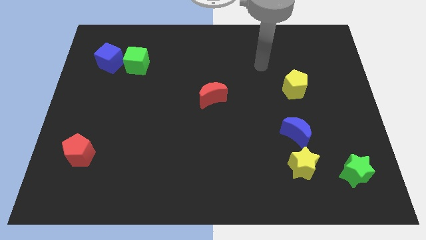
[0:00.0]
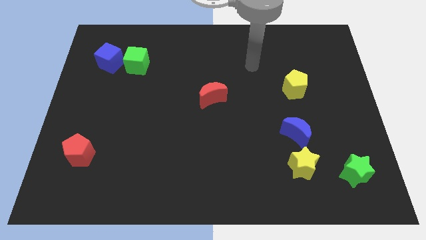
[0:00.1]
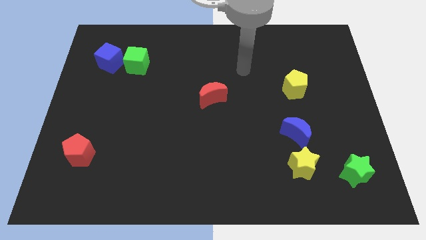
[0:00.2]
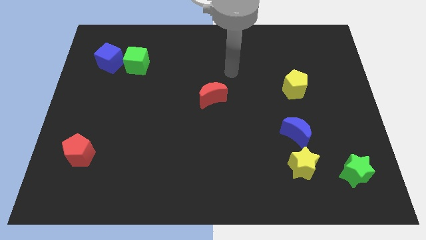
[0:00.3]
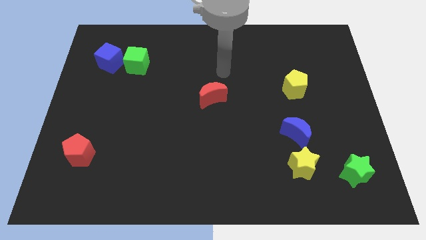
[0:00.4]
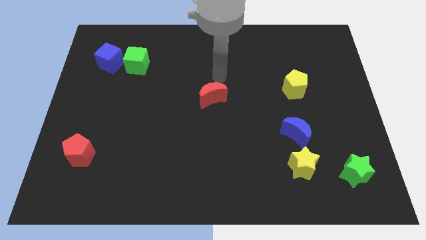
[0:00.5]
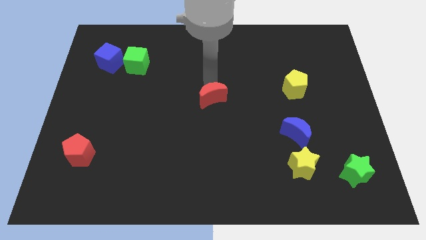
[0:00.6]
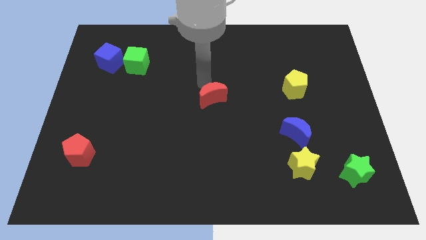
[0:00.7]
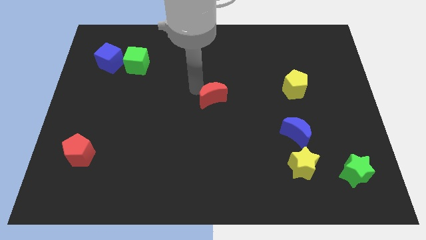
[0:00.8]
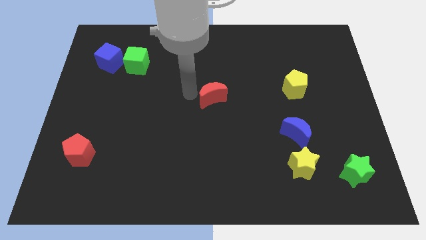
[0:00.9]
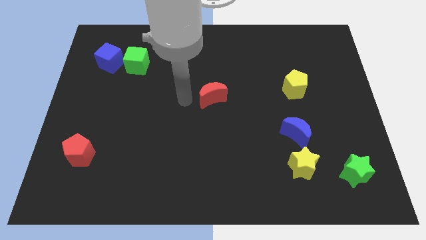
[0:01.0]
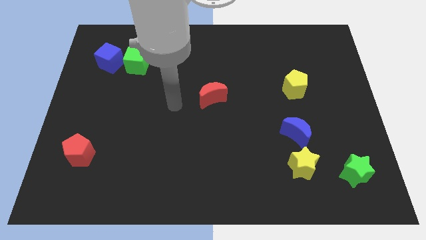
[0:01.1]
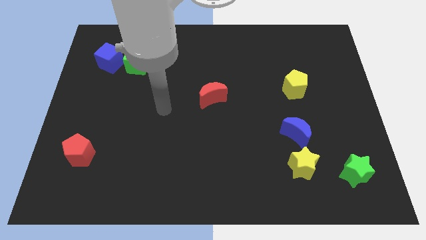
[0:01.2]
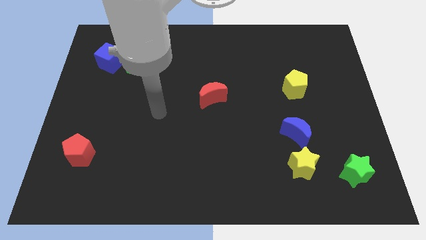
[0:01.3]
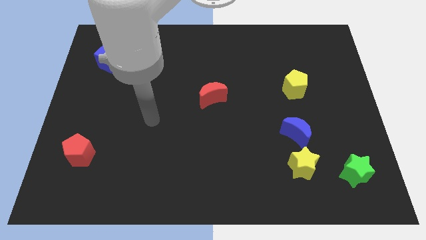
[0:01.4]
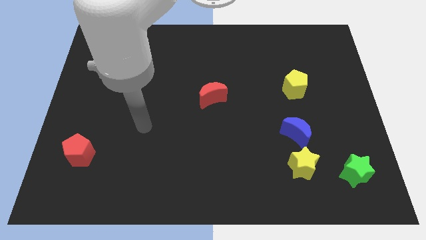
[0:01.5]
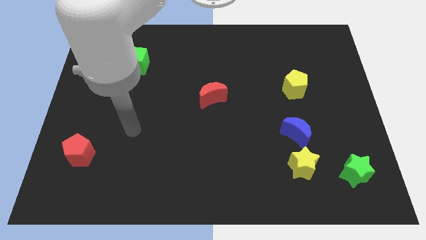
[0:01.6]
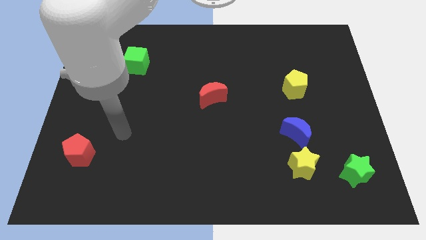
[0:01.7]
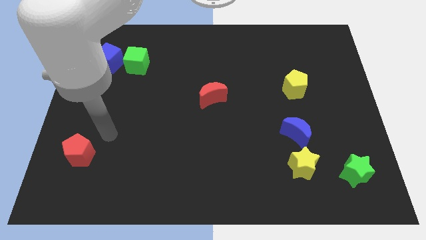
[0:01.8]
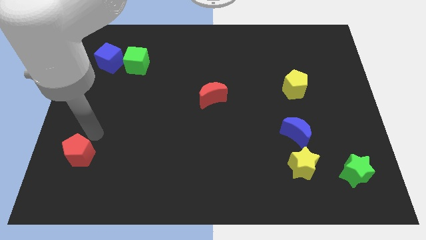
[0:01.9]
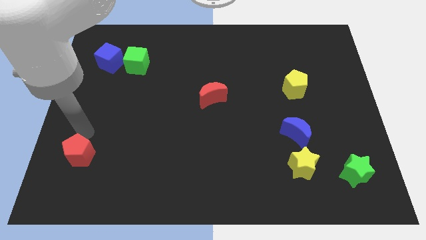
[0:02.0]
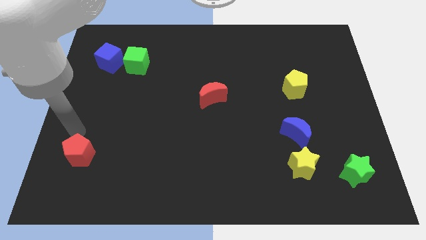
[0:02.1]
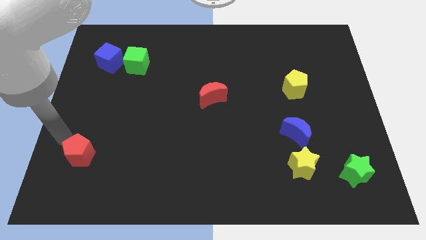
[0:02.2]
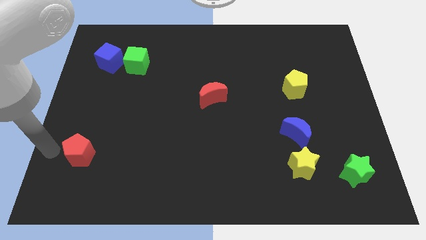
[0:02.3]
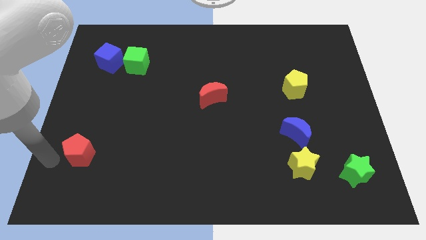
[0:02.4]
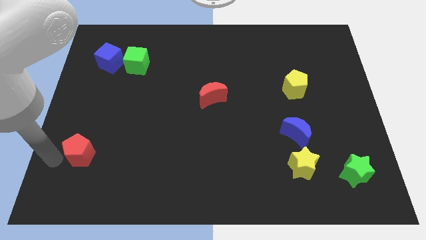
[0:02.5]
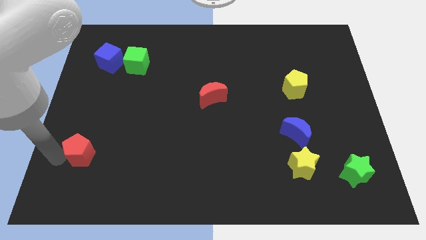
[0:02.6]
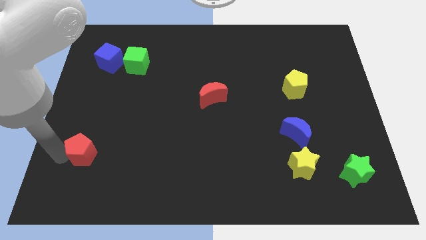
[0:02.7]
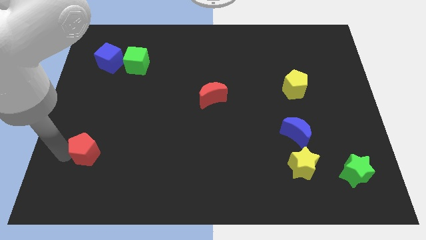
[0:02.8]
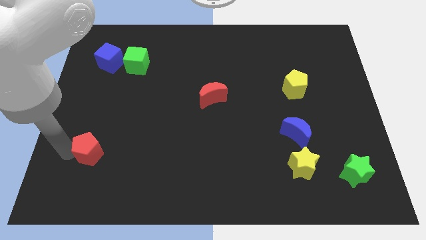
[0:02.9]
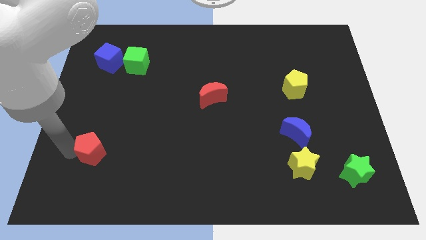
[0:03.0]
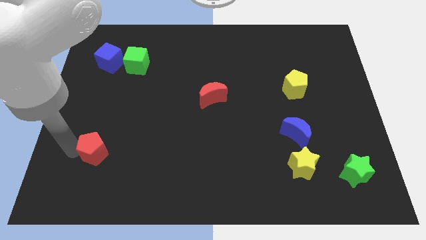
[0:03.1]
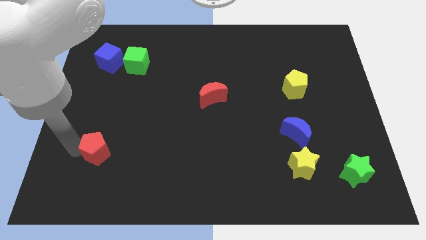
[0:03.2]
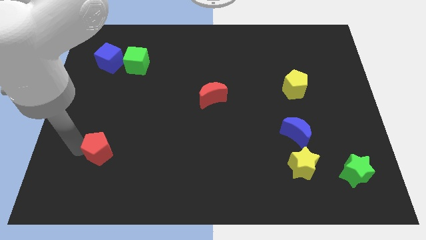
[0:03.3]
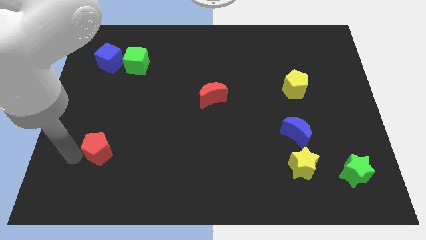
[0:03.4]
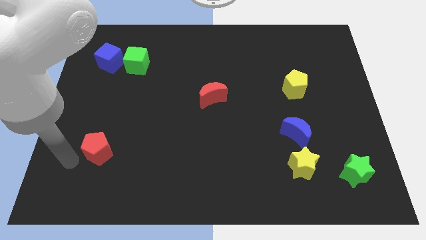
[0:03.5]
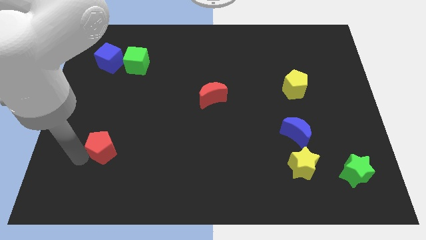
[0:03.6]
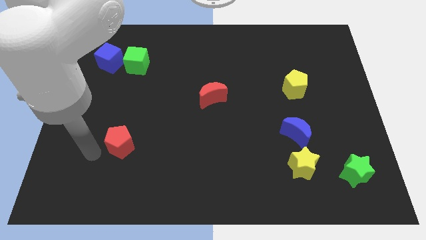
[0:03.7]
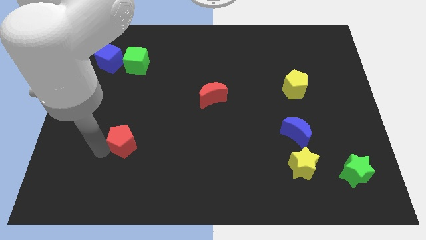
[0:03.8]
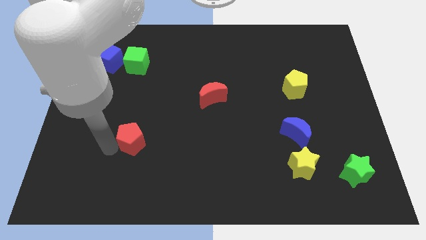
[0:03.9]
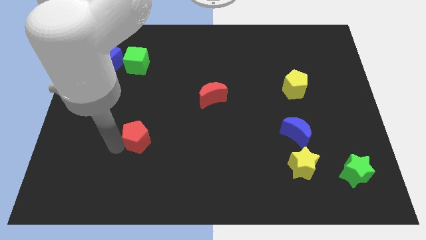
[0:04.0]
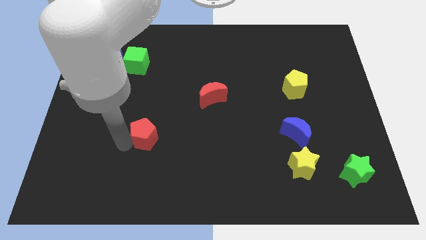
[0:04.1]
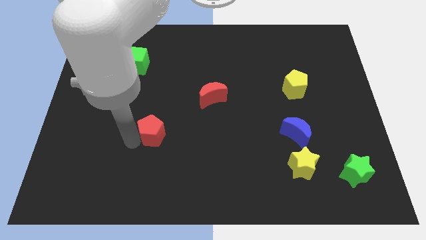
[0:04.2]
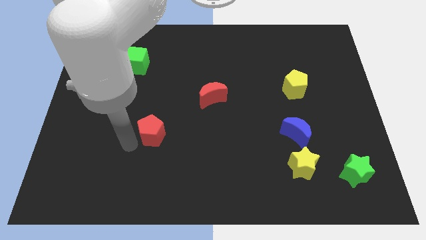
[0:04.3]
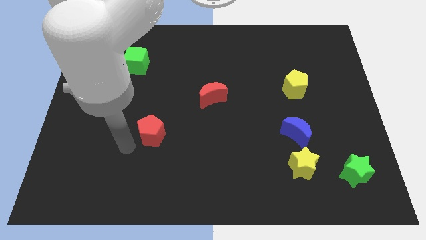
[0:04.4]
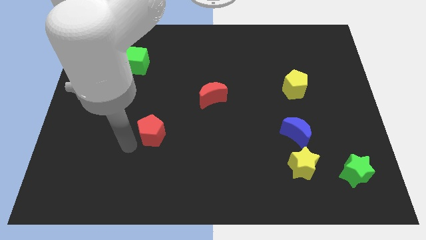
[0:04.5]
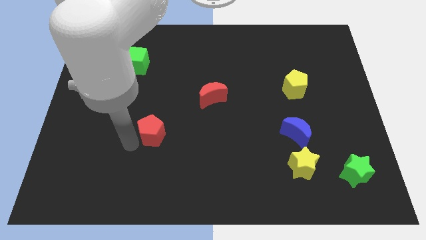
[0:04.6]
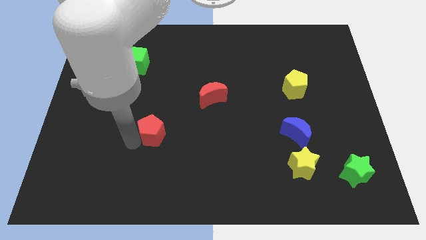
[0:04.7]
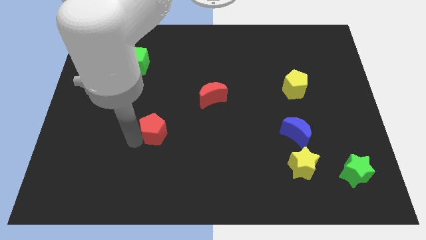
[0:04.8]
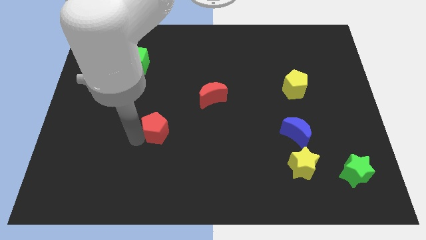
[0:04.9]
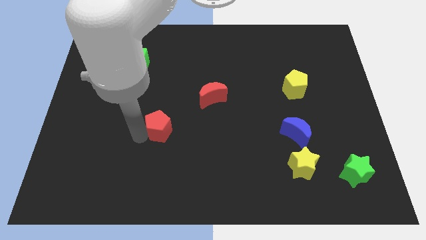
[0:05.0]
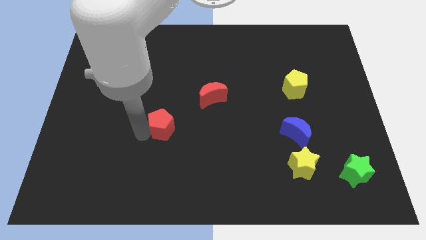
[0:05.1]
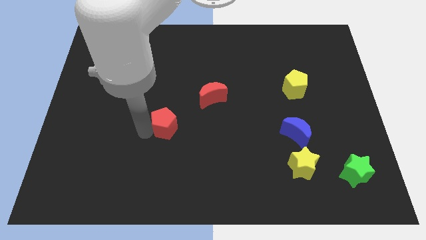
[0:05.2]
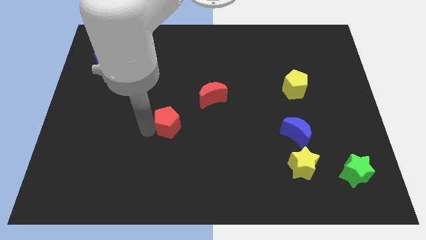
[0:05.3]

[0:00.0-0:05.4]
push the red pentagon diagonally down and to the left of the red moon

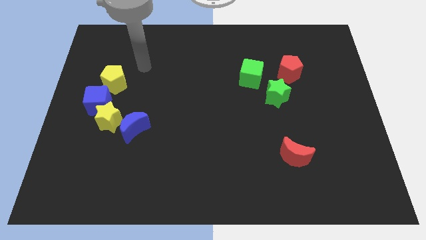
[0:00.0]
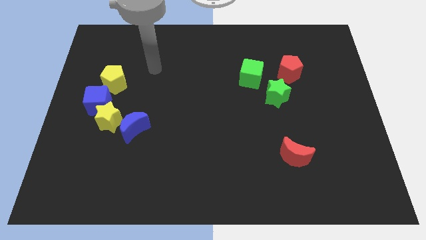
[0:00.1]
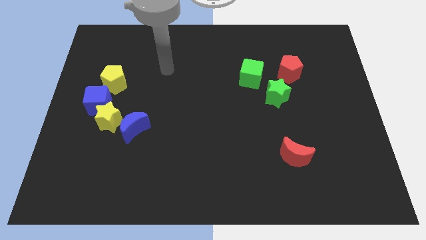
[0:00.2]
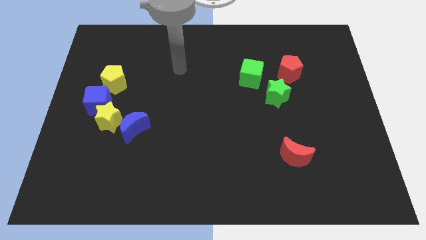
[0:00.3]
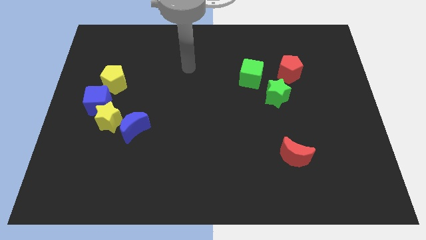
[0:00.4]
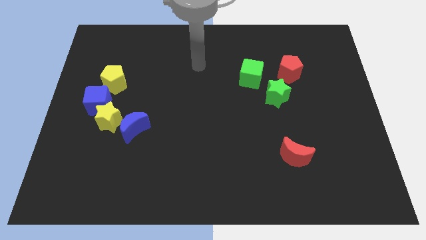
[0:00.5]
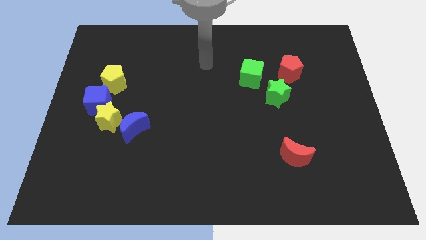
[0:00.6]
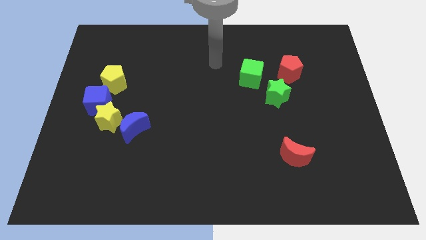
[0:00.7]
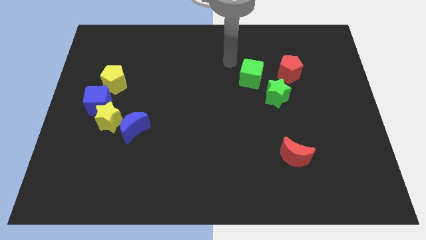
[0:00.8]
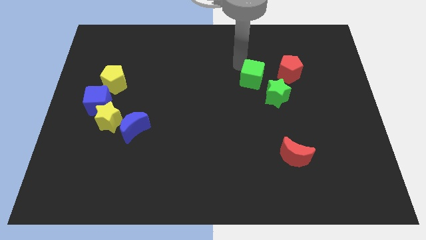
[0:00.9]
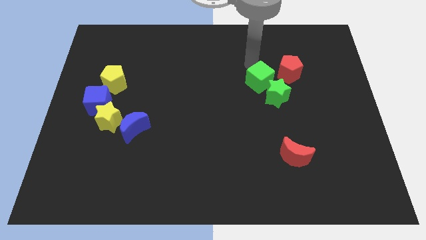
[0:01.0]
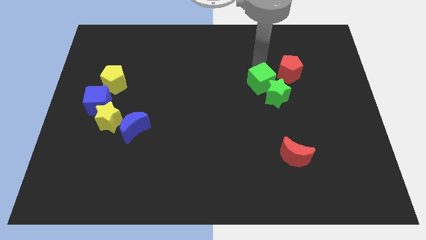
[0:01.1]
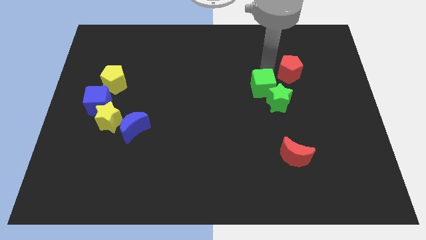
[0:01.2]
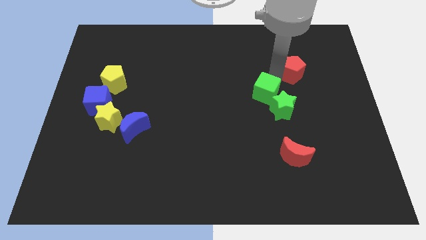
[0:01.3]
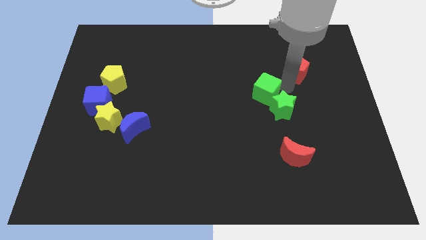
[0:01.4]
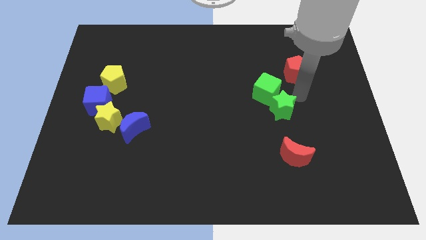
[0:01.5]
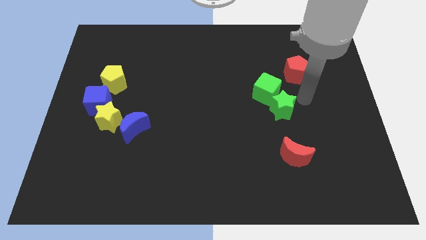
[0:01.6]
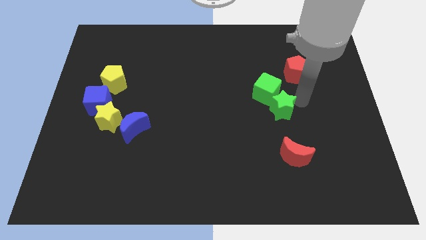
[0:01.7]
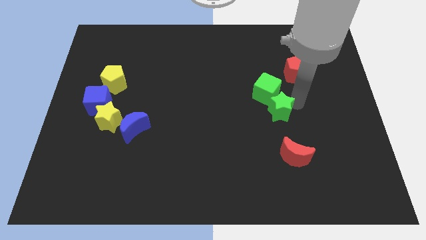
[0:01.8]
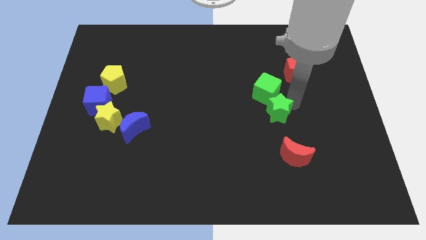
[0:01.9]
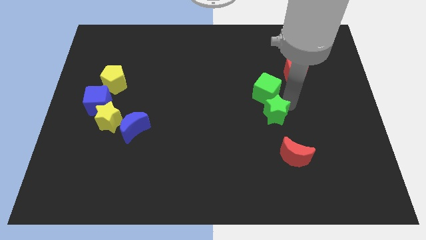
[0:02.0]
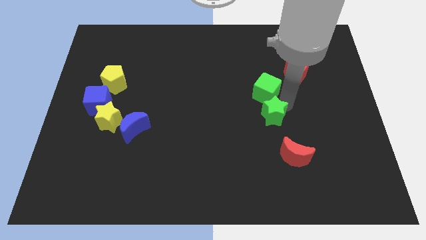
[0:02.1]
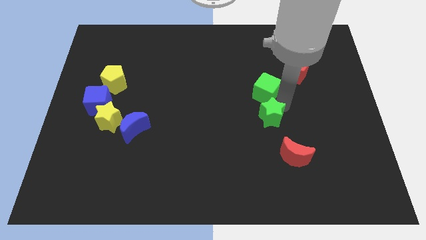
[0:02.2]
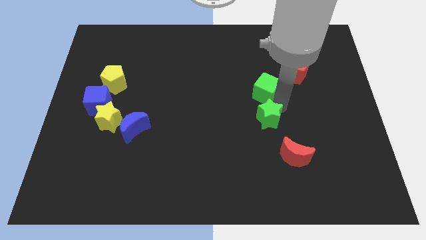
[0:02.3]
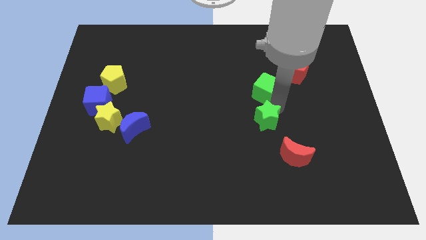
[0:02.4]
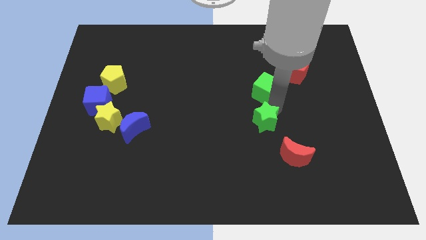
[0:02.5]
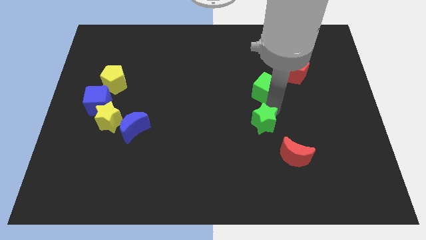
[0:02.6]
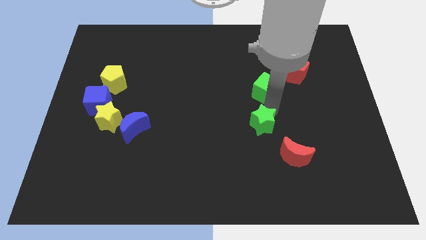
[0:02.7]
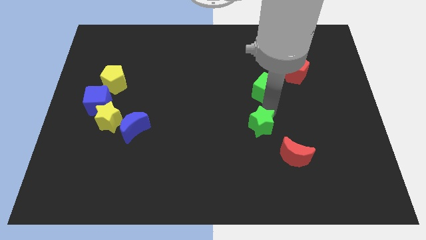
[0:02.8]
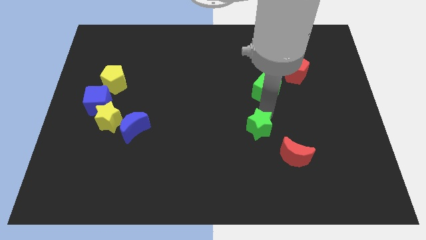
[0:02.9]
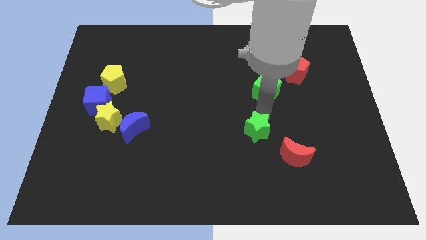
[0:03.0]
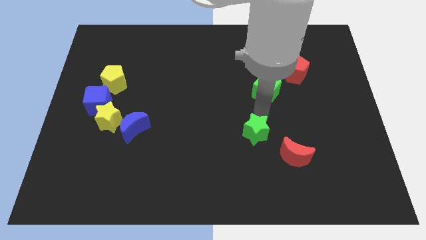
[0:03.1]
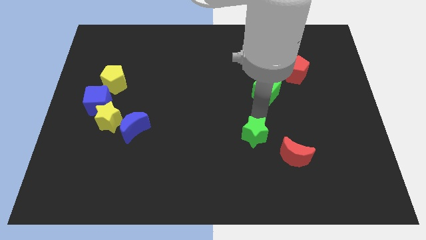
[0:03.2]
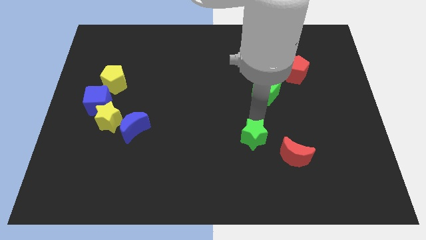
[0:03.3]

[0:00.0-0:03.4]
slide the green star just left of the red moon
